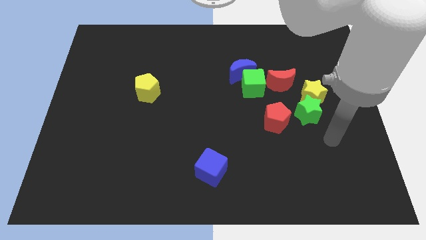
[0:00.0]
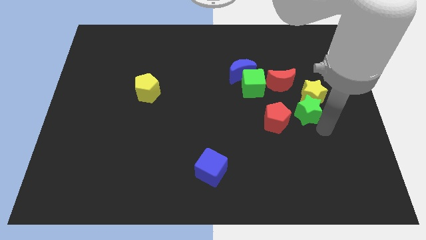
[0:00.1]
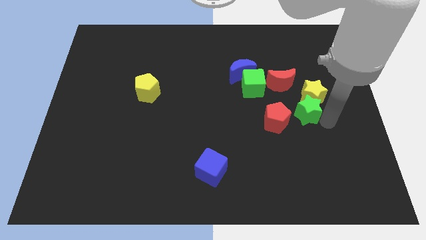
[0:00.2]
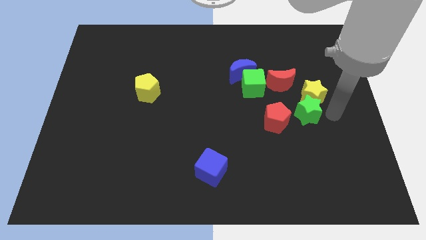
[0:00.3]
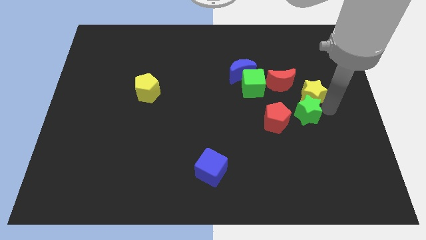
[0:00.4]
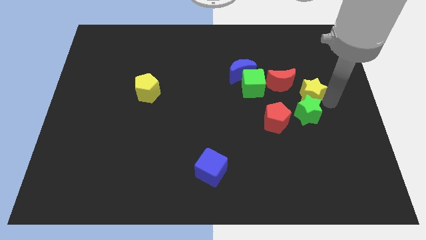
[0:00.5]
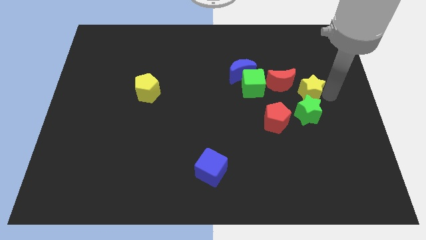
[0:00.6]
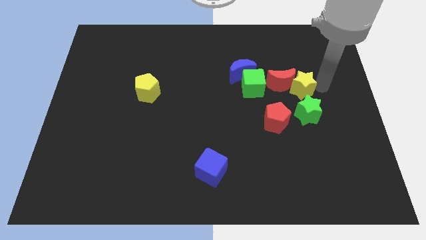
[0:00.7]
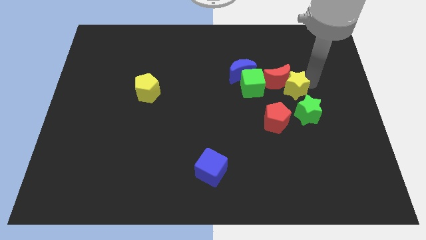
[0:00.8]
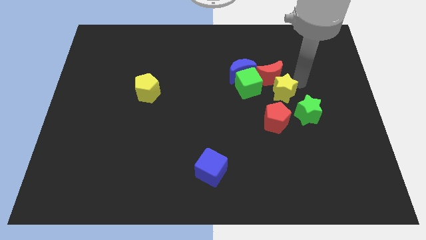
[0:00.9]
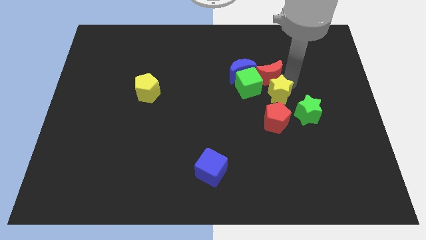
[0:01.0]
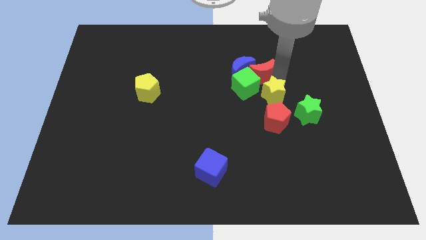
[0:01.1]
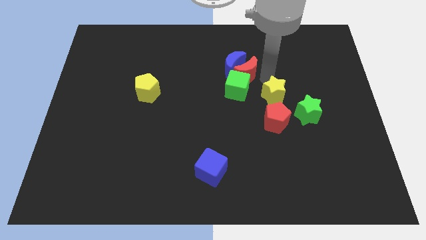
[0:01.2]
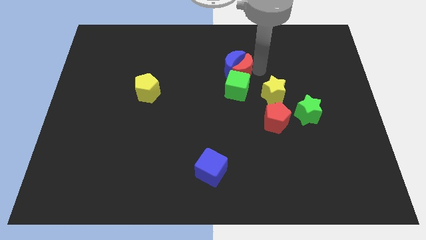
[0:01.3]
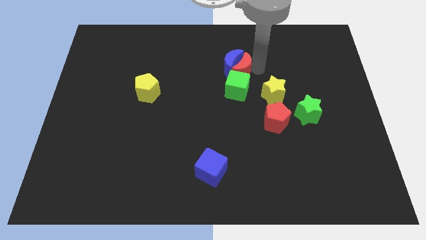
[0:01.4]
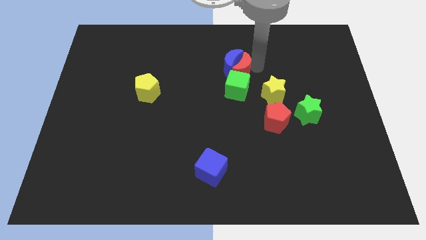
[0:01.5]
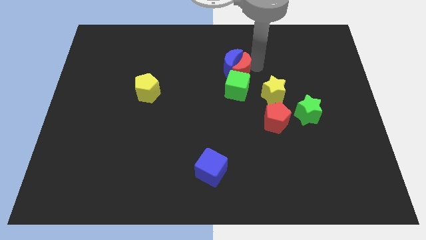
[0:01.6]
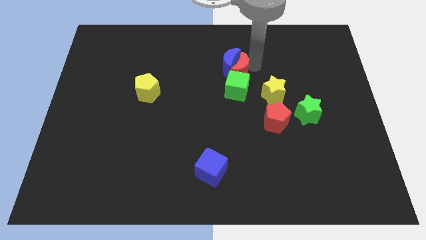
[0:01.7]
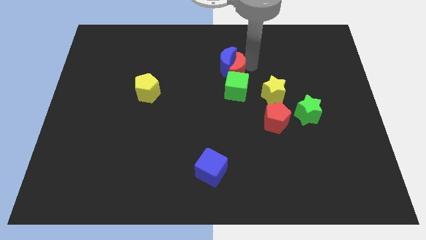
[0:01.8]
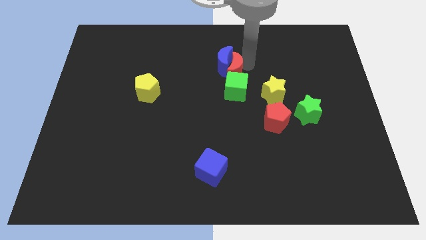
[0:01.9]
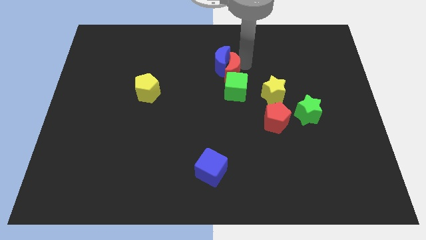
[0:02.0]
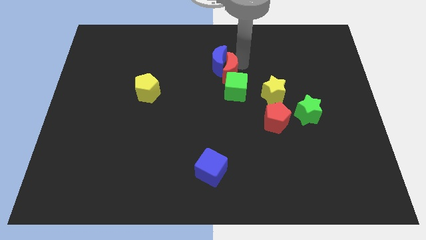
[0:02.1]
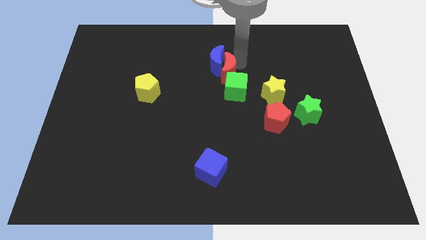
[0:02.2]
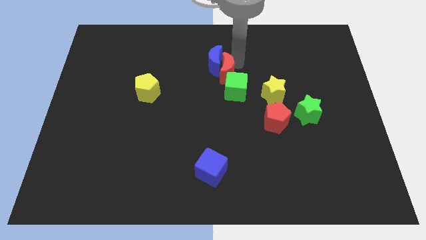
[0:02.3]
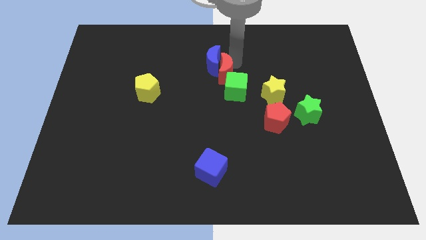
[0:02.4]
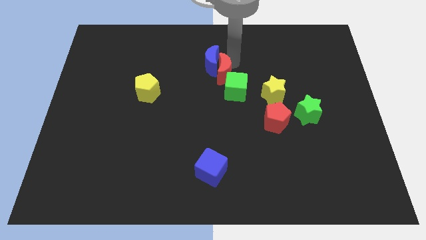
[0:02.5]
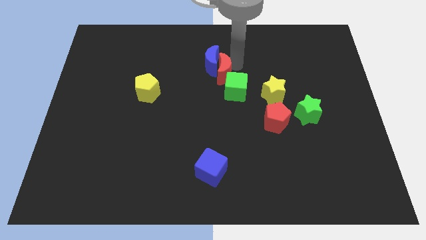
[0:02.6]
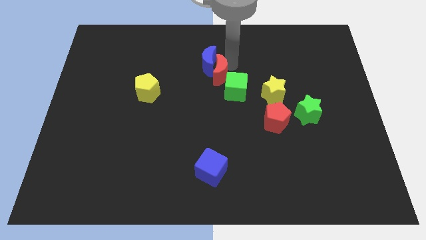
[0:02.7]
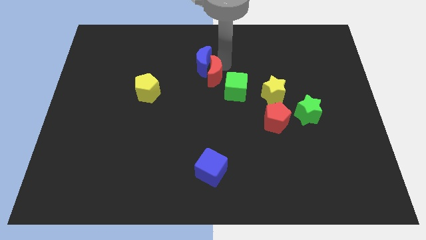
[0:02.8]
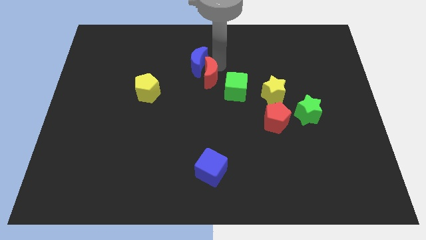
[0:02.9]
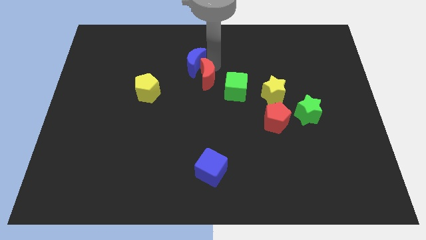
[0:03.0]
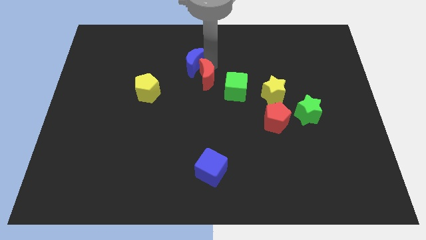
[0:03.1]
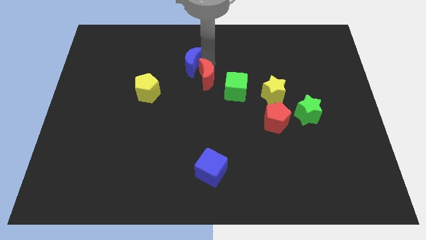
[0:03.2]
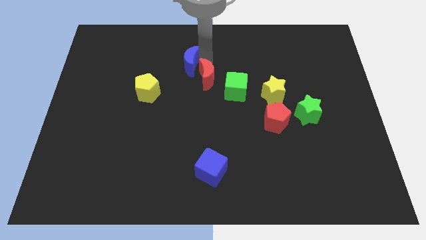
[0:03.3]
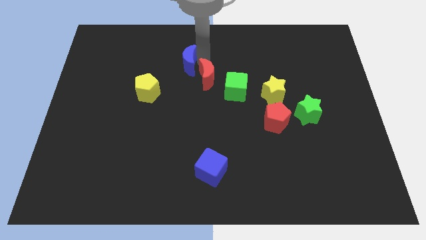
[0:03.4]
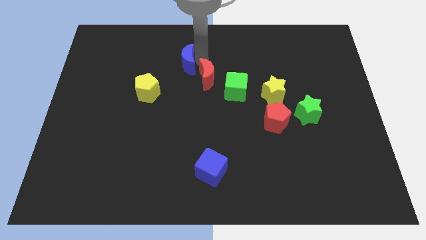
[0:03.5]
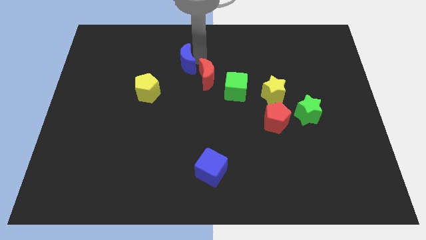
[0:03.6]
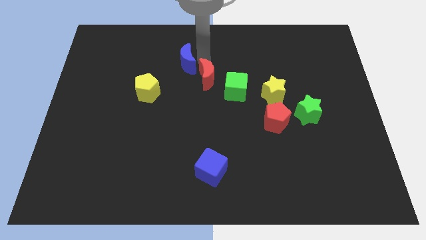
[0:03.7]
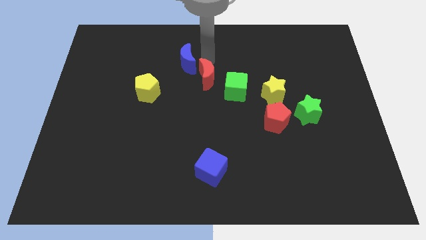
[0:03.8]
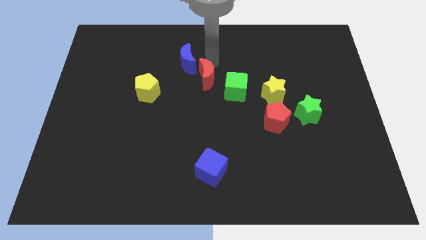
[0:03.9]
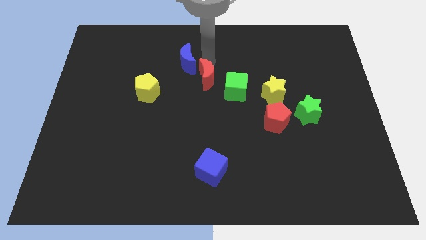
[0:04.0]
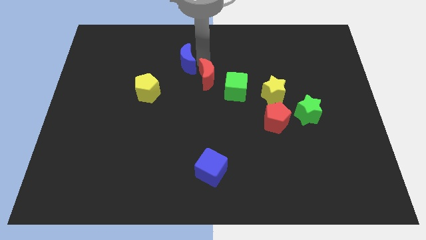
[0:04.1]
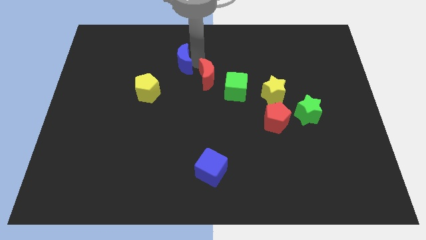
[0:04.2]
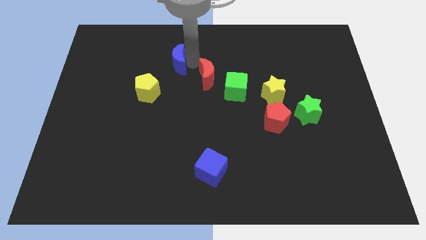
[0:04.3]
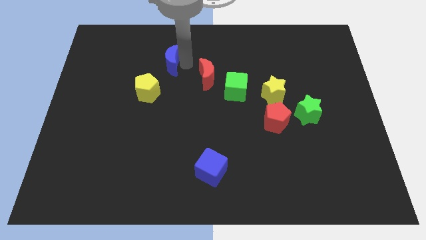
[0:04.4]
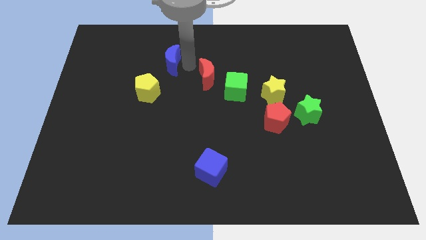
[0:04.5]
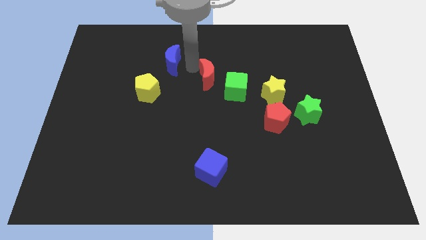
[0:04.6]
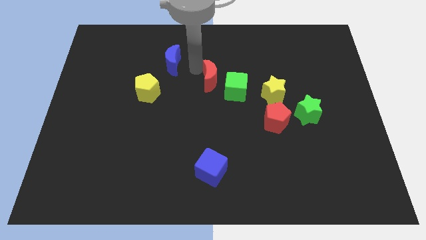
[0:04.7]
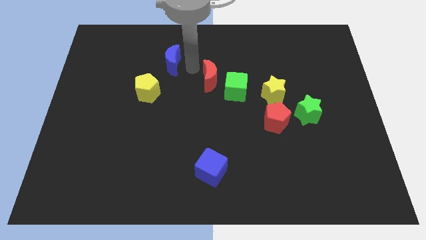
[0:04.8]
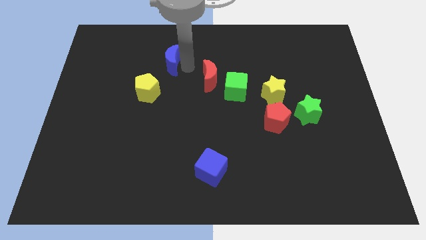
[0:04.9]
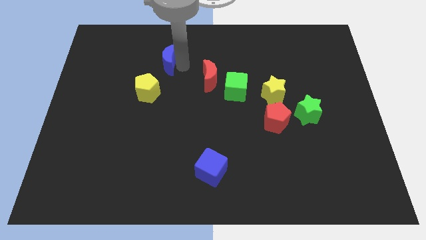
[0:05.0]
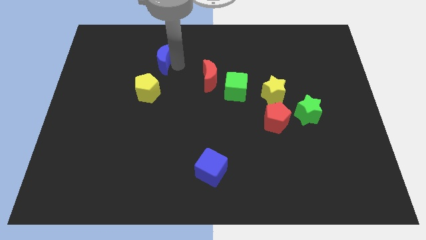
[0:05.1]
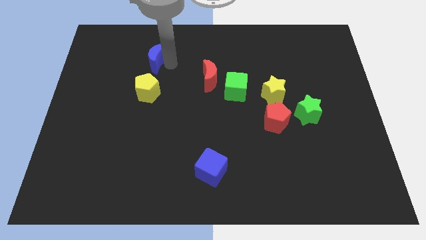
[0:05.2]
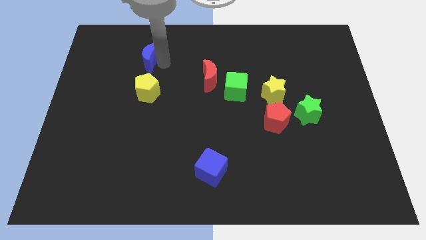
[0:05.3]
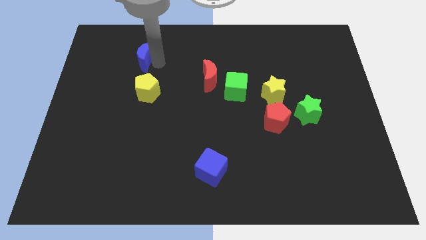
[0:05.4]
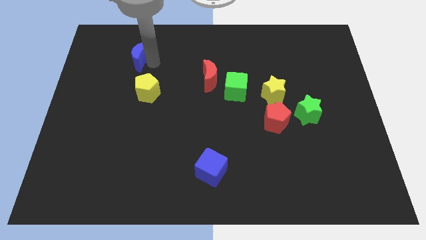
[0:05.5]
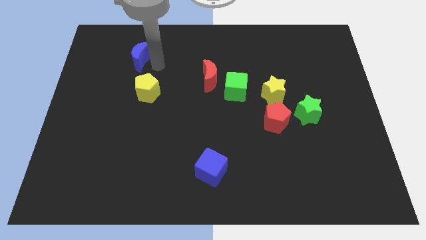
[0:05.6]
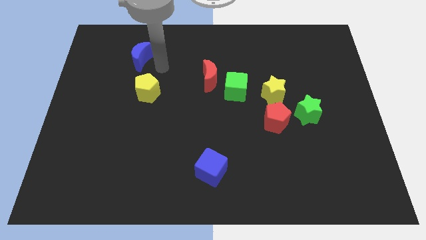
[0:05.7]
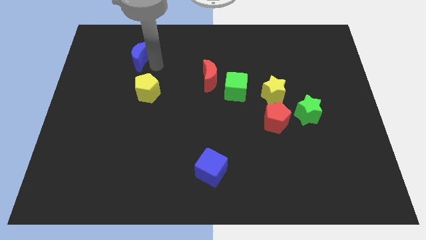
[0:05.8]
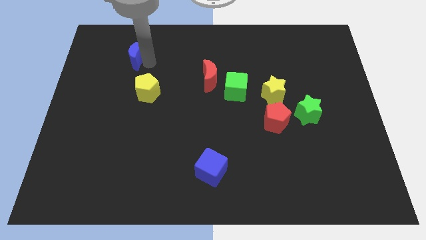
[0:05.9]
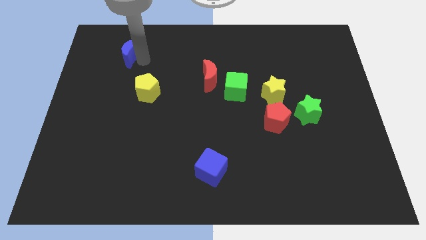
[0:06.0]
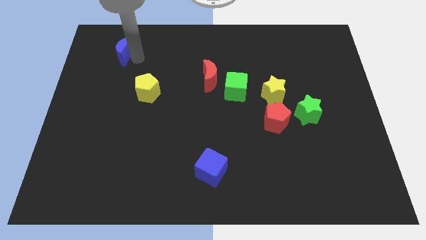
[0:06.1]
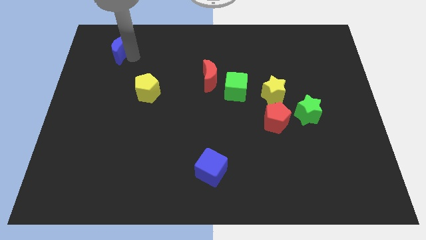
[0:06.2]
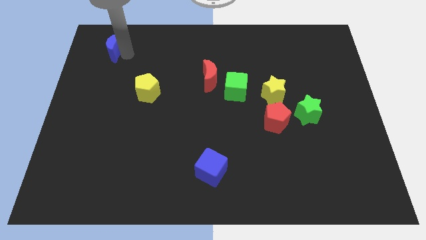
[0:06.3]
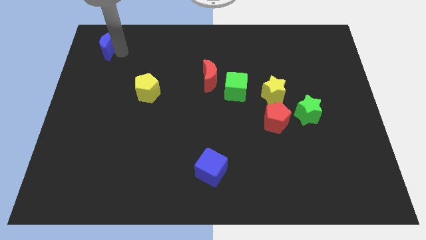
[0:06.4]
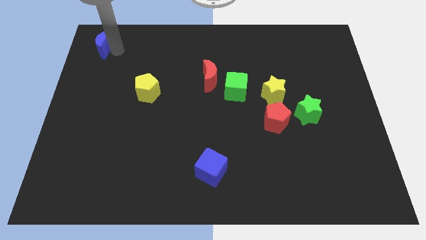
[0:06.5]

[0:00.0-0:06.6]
push the blue moon to the top left

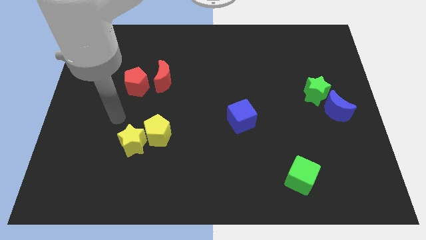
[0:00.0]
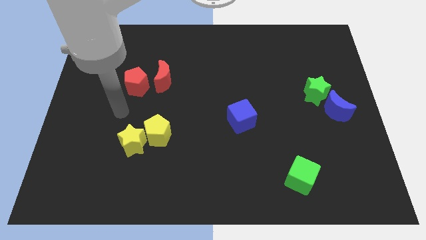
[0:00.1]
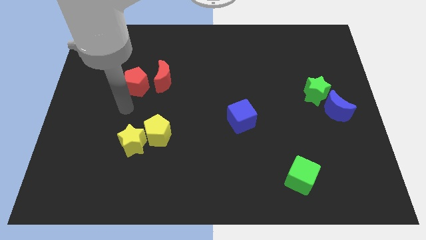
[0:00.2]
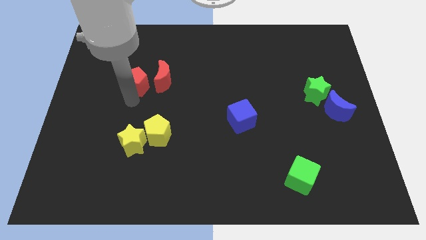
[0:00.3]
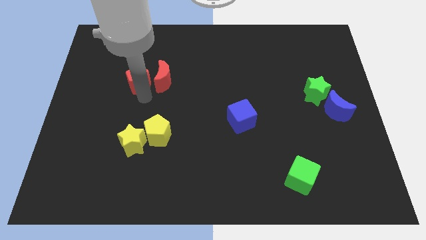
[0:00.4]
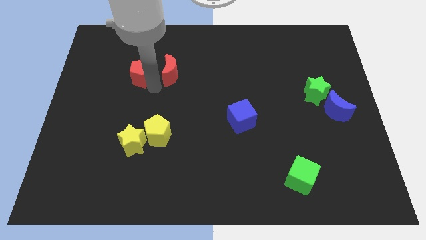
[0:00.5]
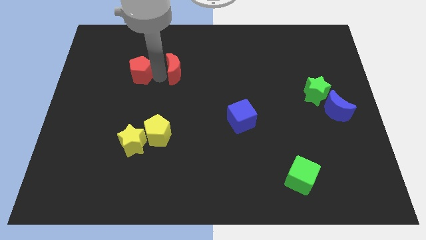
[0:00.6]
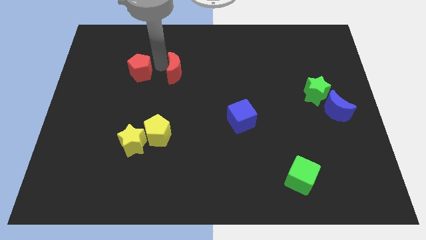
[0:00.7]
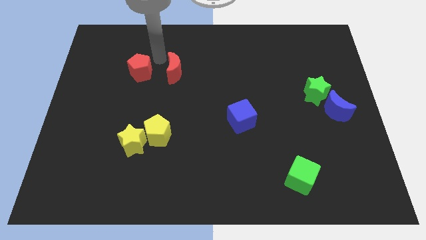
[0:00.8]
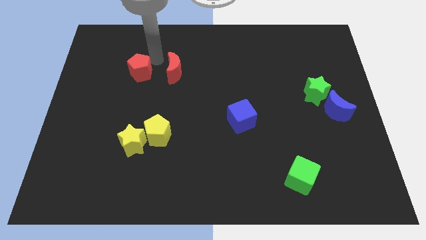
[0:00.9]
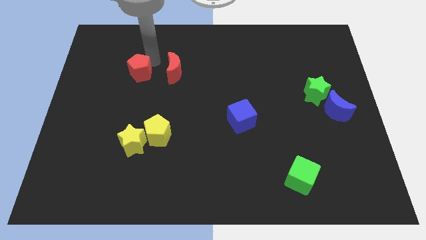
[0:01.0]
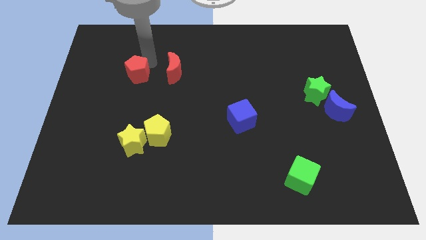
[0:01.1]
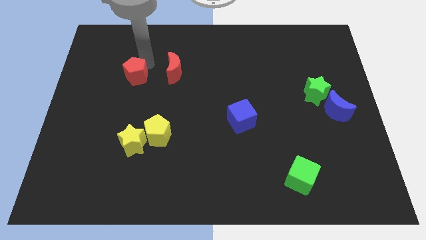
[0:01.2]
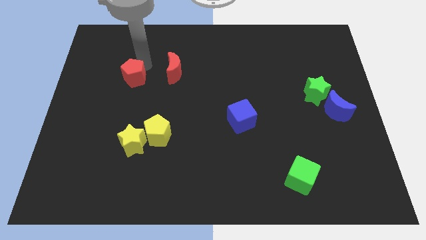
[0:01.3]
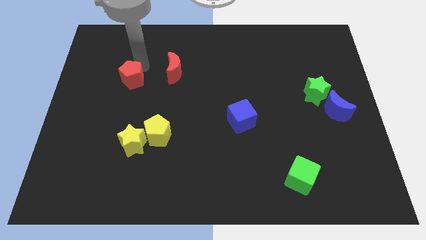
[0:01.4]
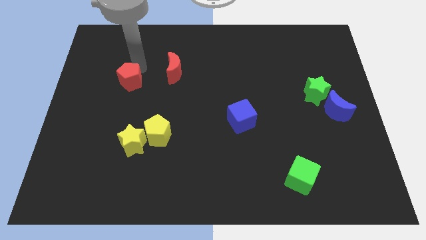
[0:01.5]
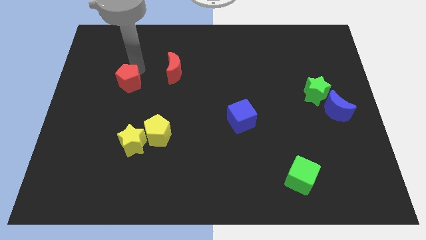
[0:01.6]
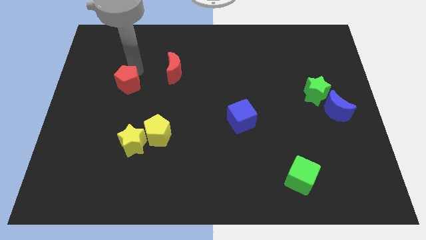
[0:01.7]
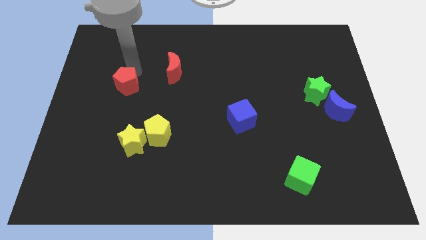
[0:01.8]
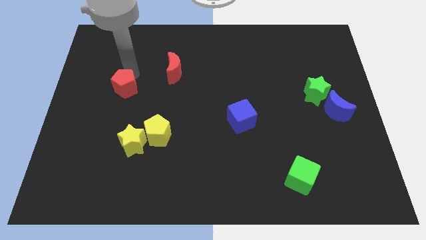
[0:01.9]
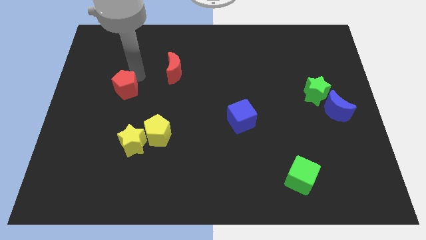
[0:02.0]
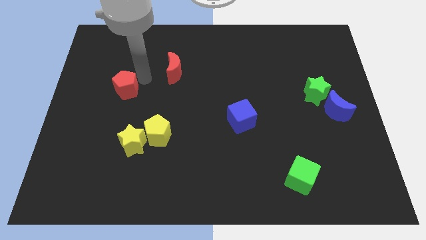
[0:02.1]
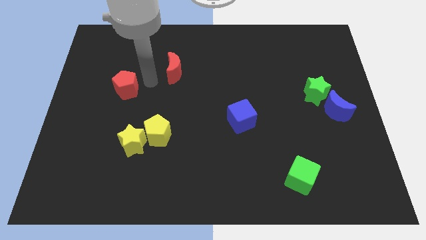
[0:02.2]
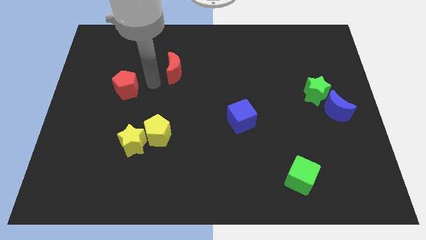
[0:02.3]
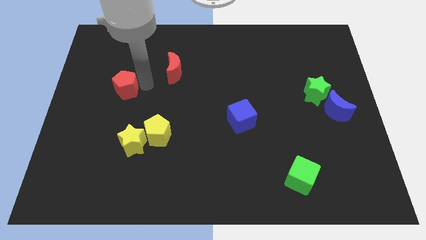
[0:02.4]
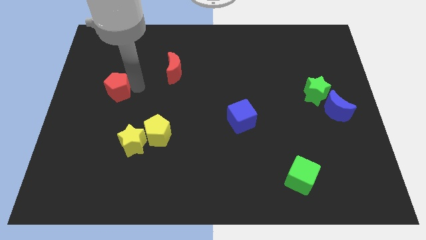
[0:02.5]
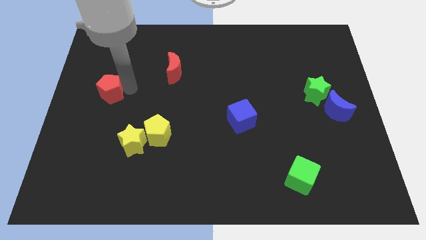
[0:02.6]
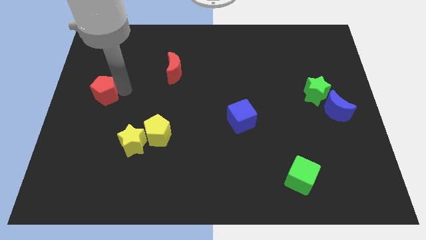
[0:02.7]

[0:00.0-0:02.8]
push the red pentagon to the left side of the board
